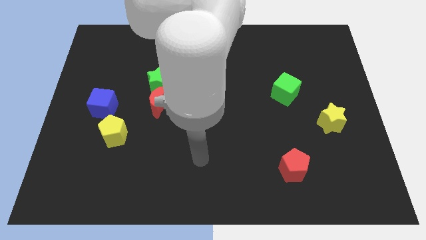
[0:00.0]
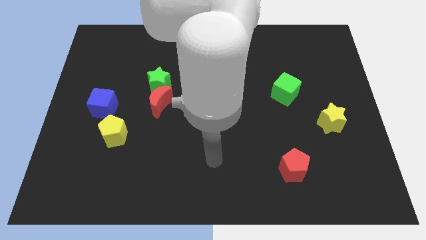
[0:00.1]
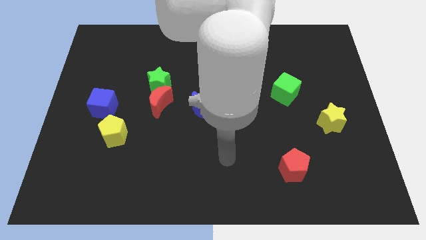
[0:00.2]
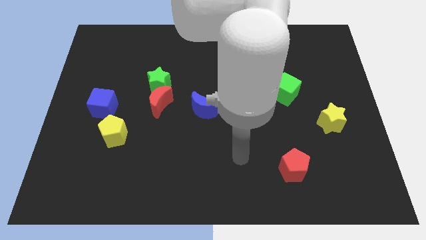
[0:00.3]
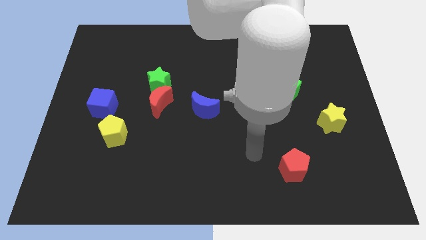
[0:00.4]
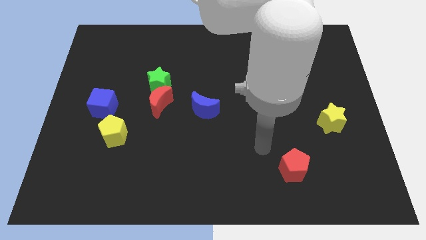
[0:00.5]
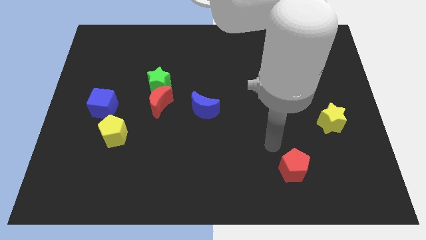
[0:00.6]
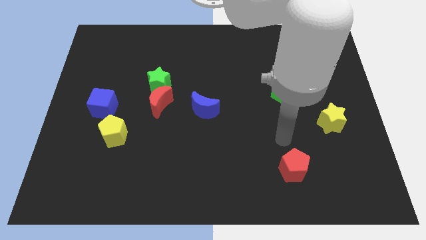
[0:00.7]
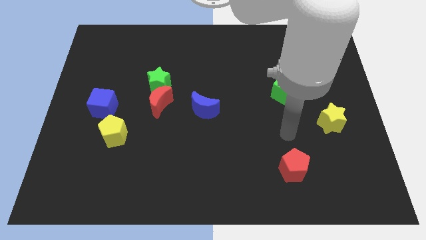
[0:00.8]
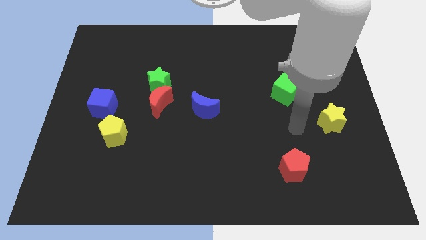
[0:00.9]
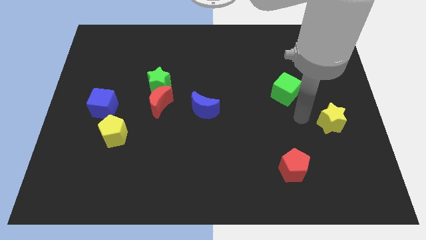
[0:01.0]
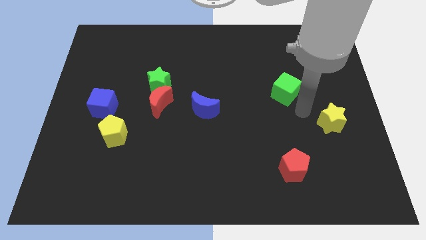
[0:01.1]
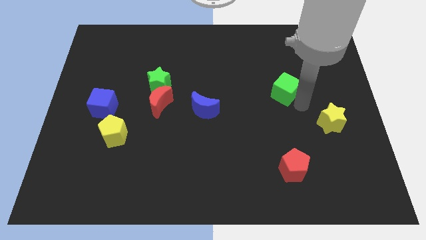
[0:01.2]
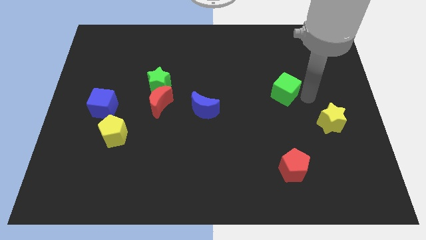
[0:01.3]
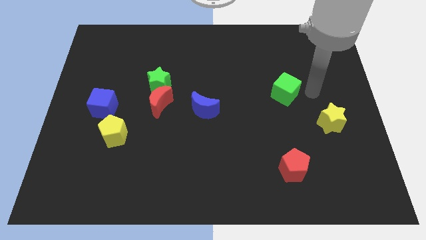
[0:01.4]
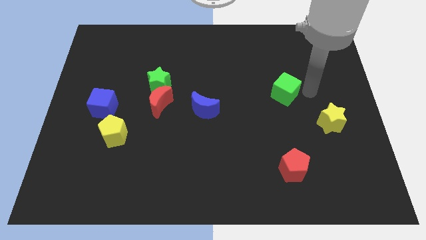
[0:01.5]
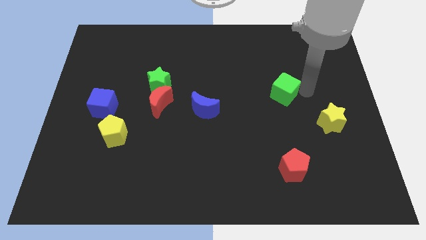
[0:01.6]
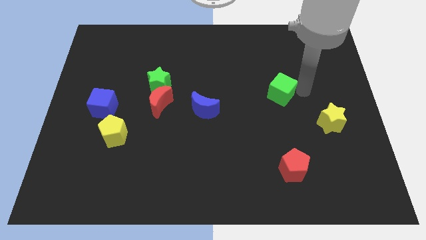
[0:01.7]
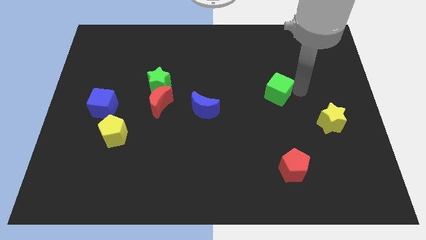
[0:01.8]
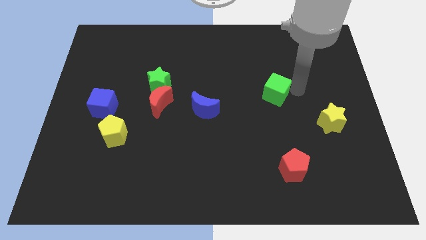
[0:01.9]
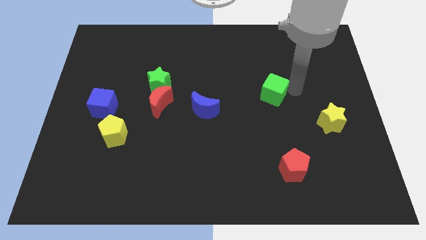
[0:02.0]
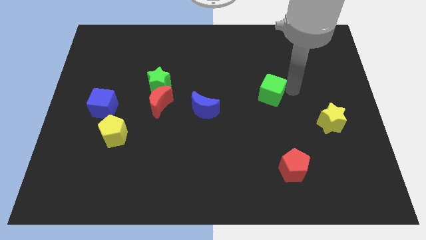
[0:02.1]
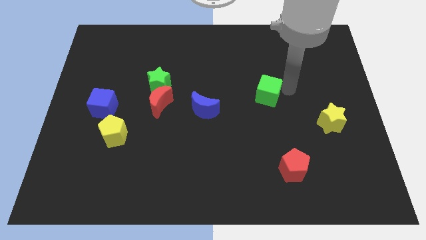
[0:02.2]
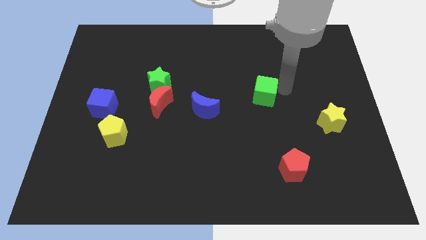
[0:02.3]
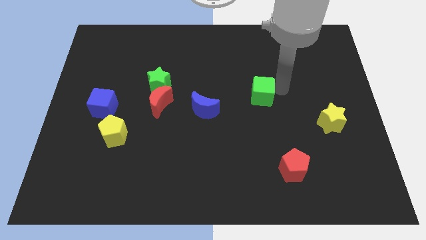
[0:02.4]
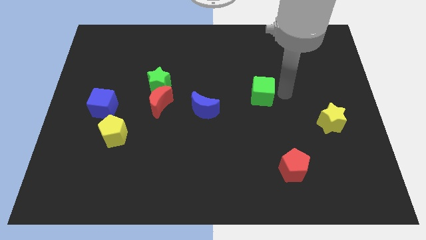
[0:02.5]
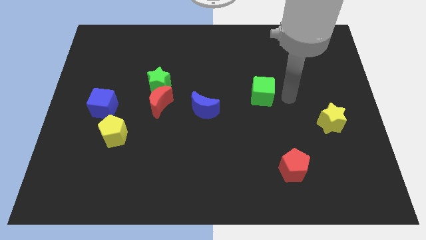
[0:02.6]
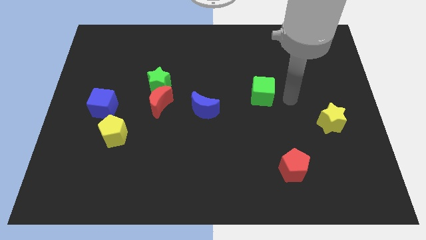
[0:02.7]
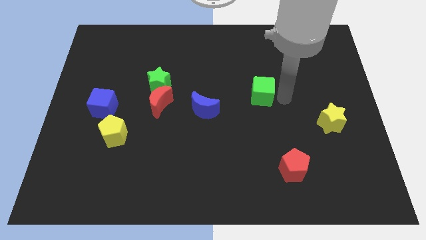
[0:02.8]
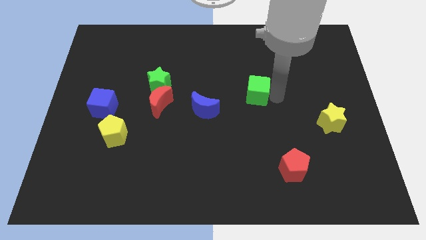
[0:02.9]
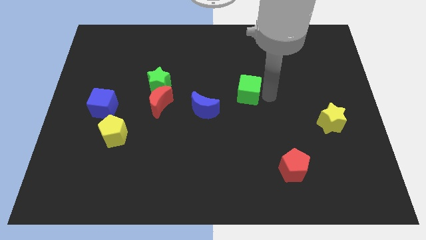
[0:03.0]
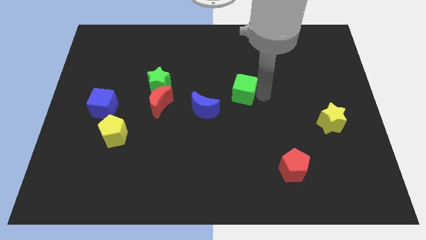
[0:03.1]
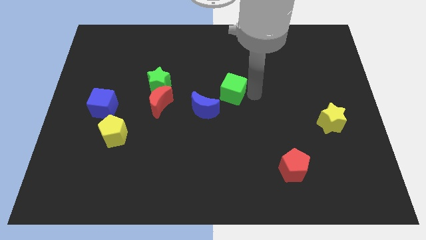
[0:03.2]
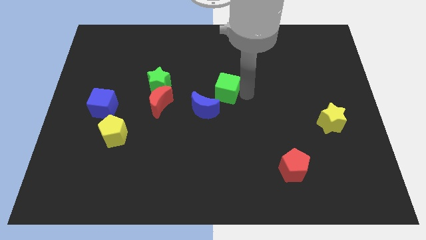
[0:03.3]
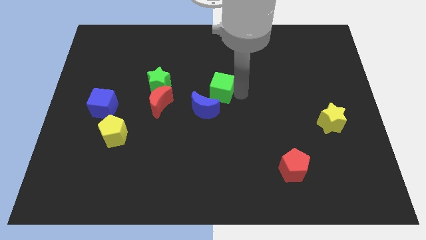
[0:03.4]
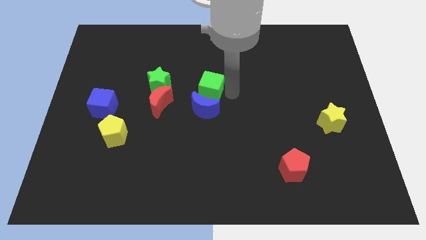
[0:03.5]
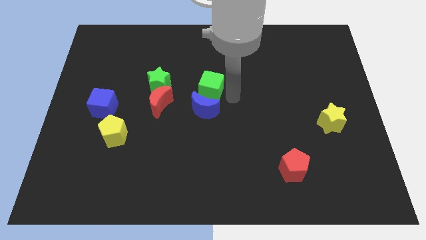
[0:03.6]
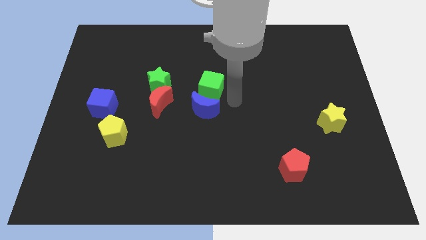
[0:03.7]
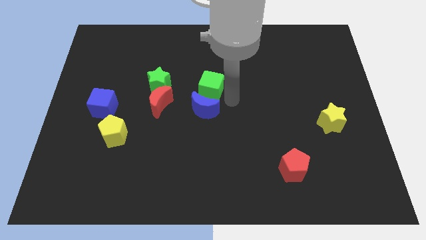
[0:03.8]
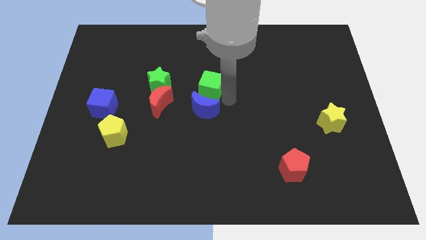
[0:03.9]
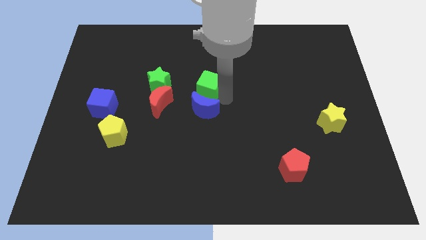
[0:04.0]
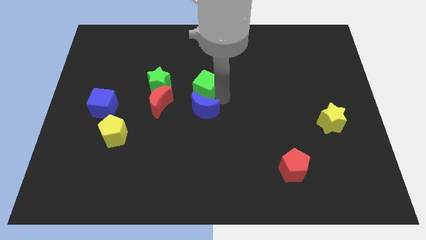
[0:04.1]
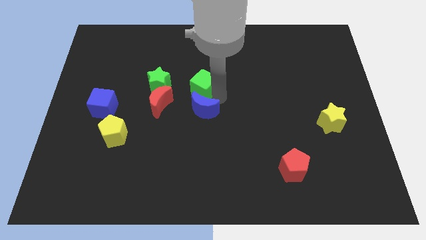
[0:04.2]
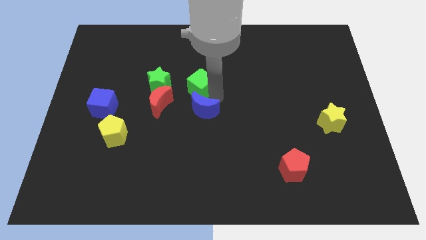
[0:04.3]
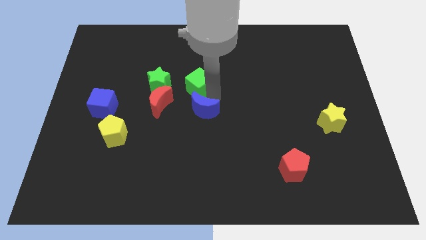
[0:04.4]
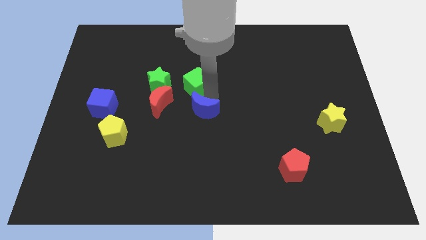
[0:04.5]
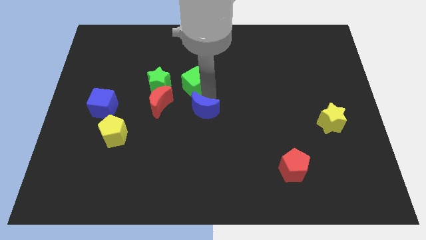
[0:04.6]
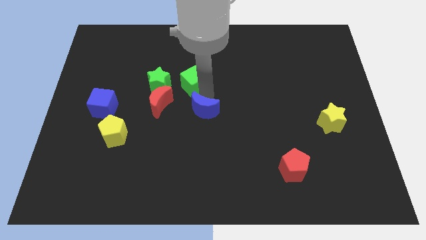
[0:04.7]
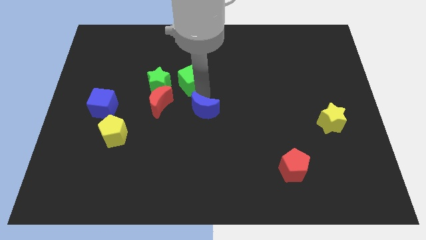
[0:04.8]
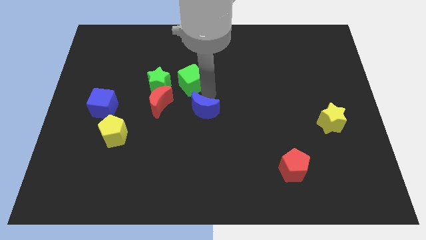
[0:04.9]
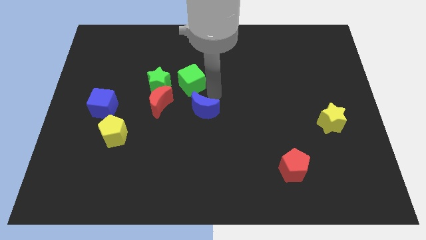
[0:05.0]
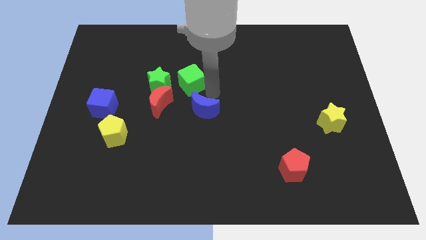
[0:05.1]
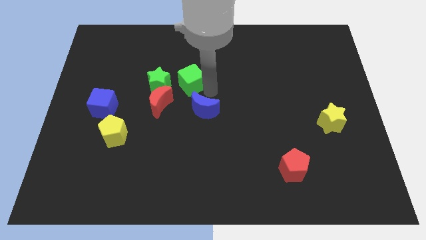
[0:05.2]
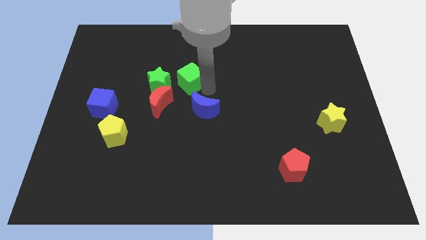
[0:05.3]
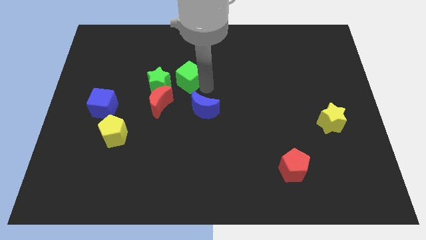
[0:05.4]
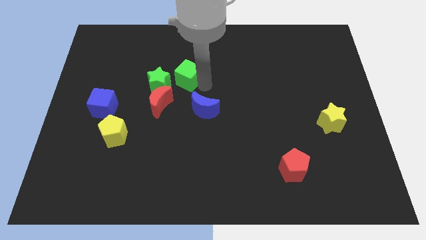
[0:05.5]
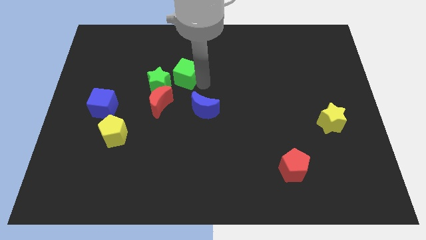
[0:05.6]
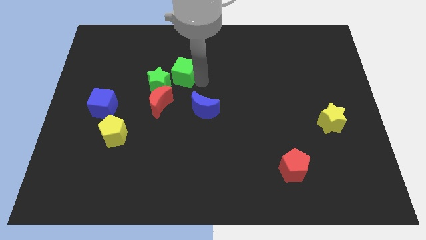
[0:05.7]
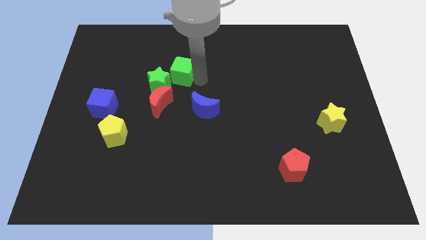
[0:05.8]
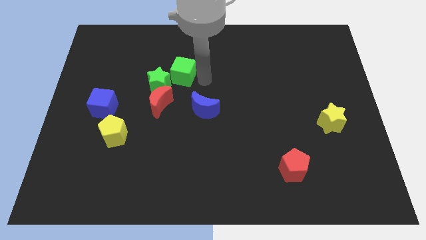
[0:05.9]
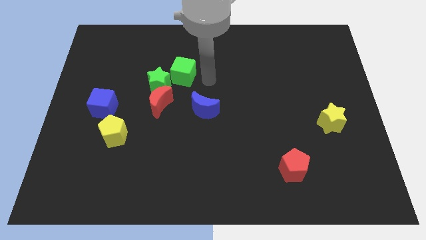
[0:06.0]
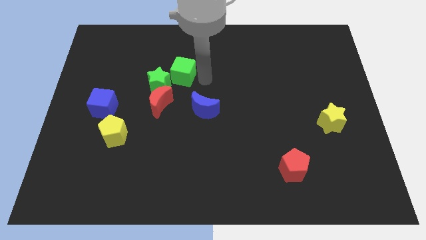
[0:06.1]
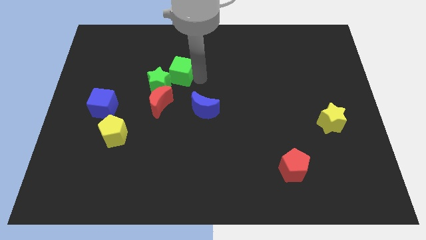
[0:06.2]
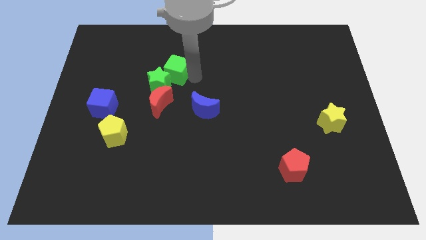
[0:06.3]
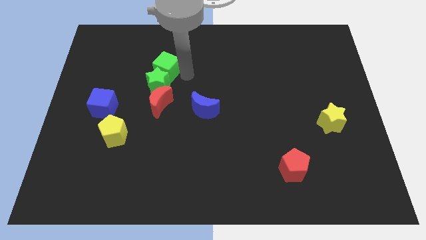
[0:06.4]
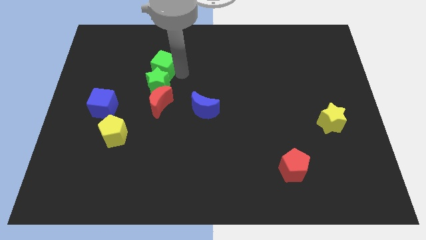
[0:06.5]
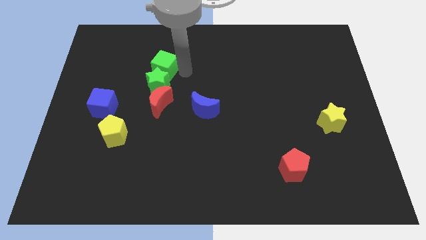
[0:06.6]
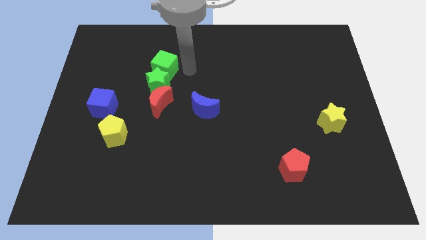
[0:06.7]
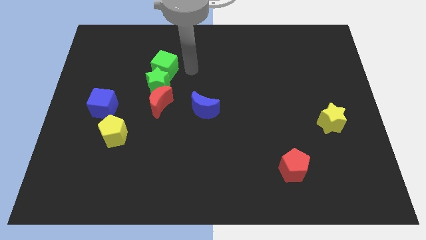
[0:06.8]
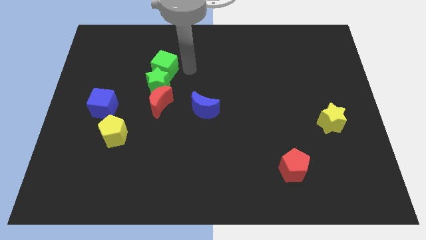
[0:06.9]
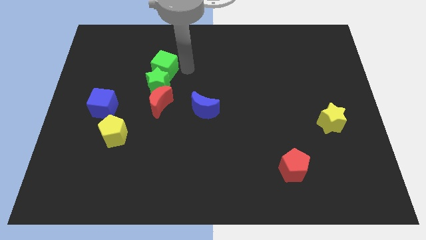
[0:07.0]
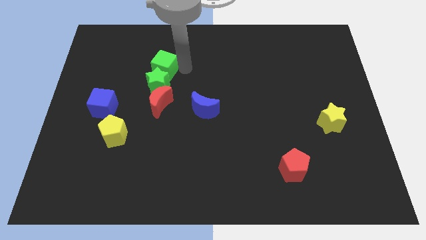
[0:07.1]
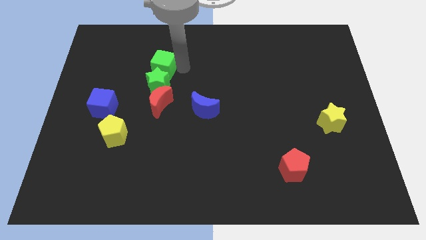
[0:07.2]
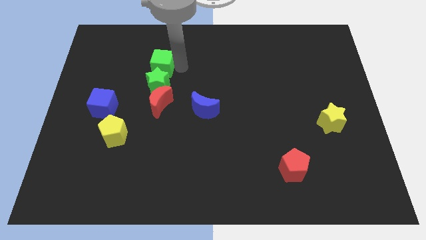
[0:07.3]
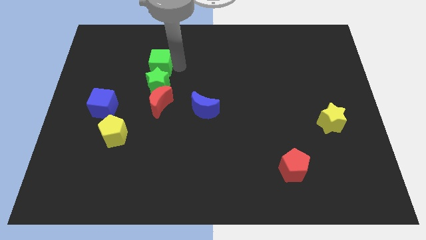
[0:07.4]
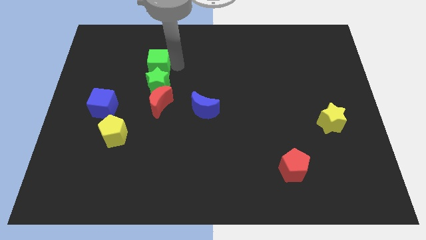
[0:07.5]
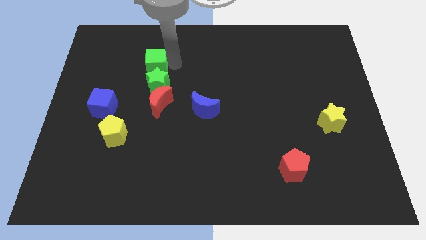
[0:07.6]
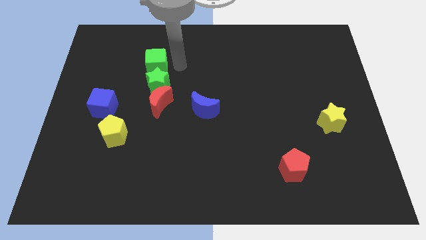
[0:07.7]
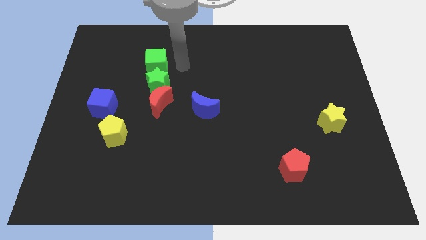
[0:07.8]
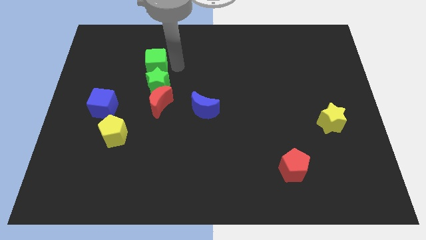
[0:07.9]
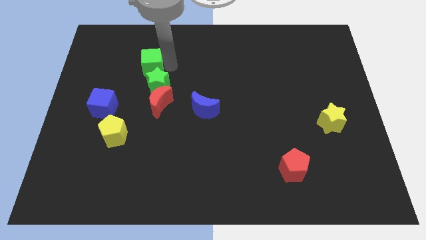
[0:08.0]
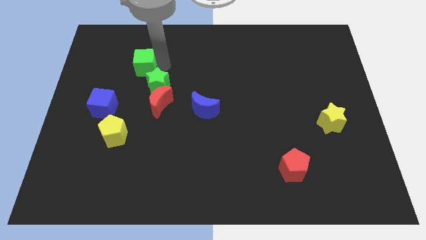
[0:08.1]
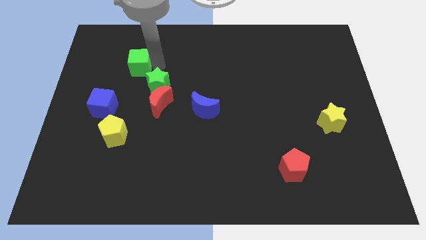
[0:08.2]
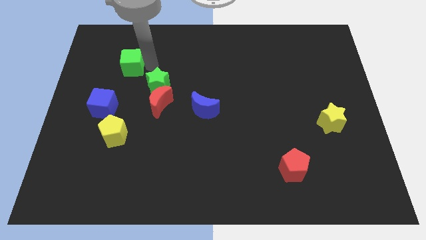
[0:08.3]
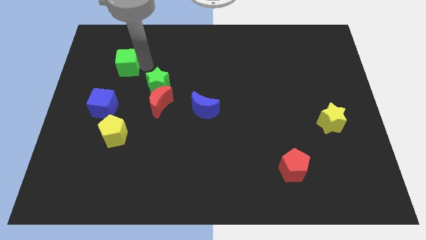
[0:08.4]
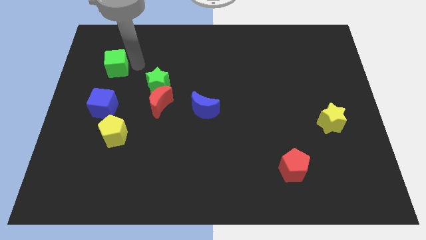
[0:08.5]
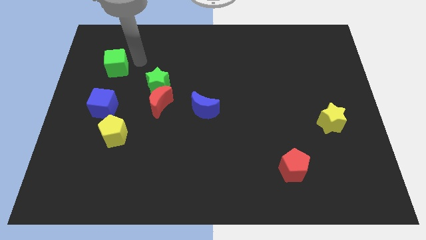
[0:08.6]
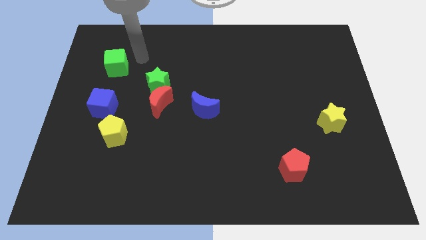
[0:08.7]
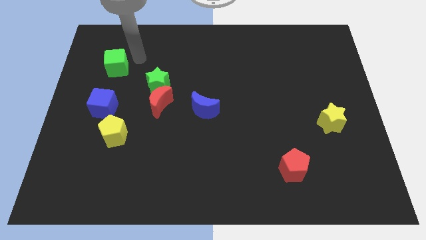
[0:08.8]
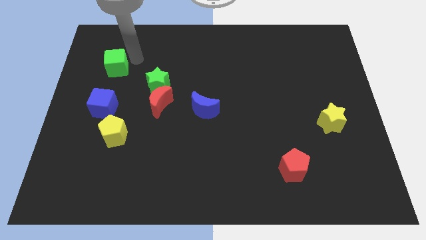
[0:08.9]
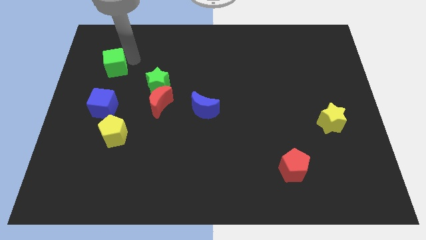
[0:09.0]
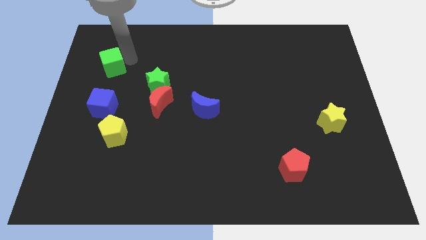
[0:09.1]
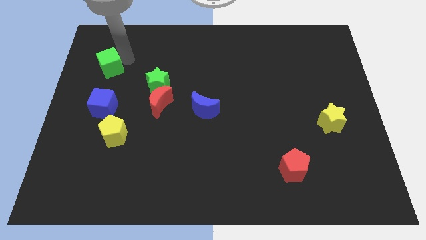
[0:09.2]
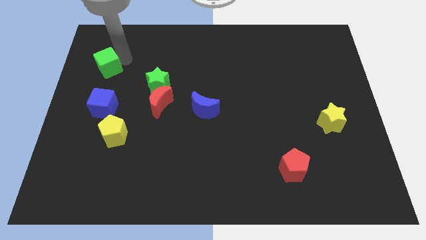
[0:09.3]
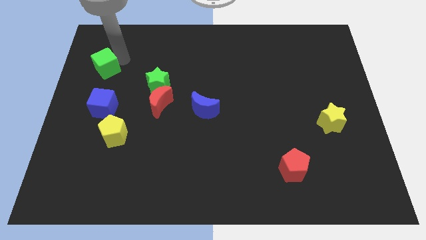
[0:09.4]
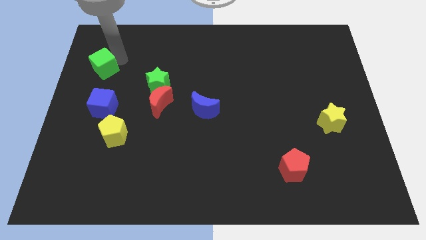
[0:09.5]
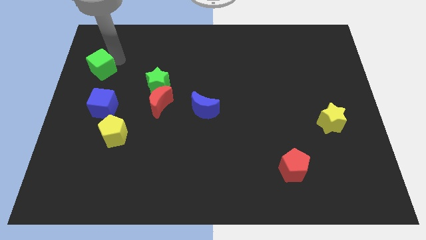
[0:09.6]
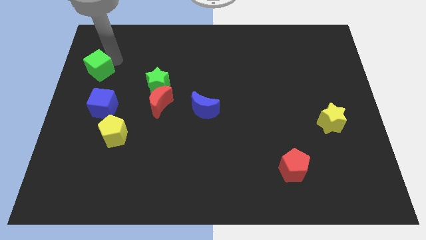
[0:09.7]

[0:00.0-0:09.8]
push the green cube to the left side of the board
